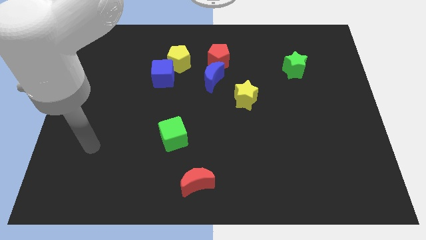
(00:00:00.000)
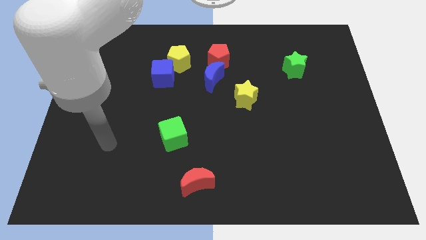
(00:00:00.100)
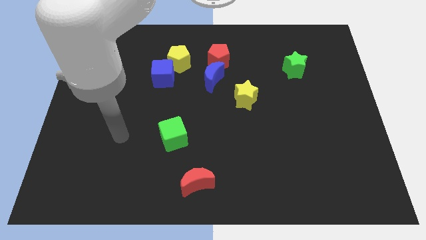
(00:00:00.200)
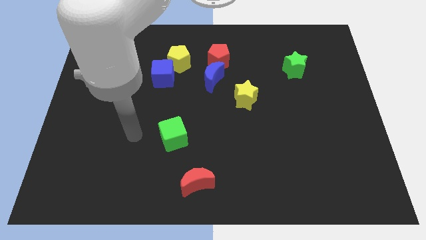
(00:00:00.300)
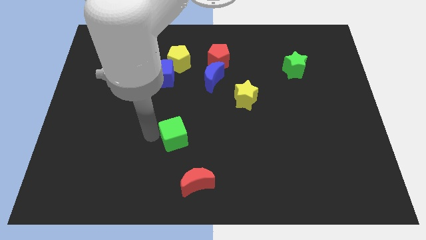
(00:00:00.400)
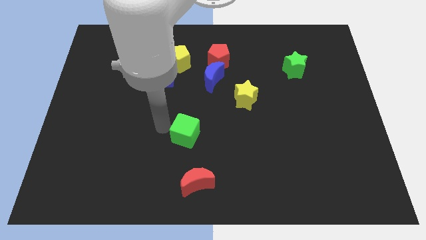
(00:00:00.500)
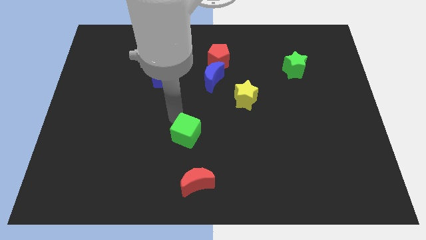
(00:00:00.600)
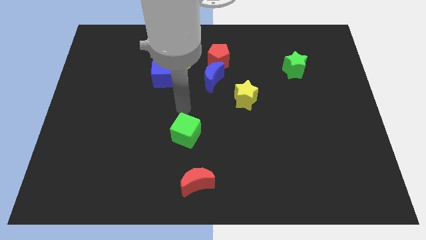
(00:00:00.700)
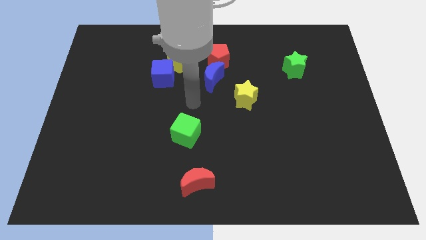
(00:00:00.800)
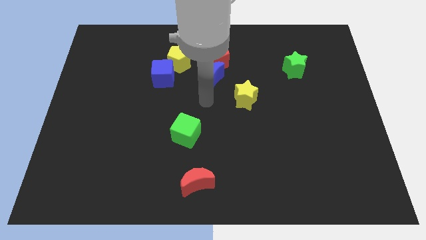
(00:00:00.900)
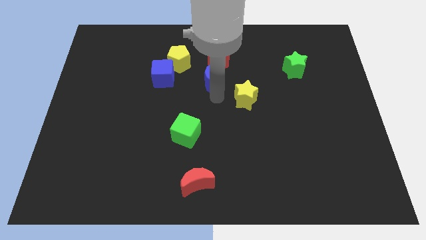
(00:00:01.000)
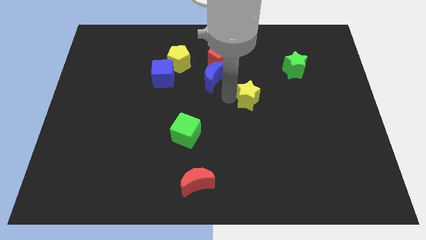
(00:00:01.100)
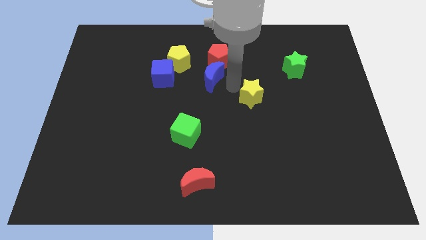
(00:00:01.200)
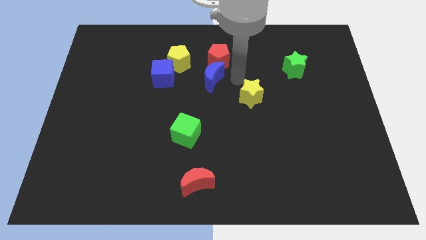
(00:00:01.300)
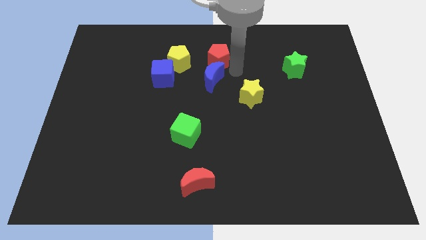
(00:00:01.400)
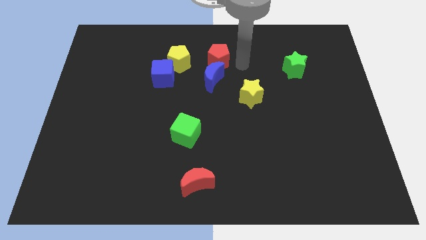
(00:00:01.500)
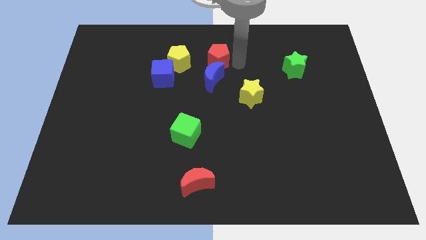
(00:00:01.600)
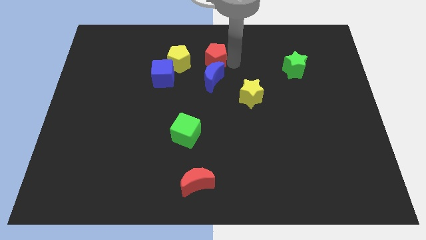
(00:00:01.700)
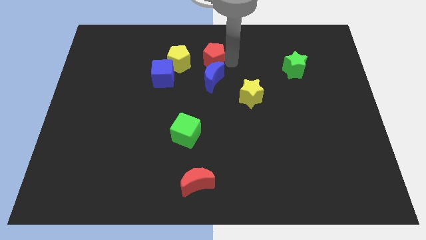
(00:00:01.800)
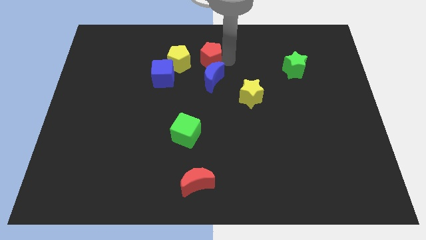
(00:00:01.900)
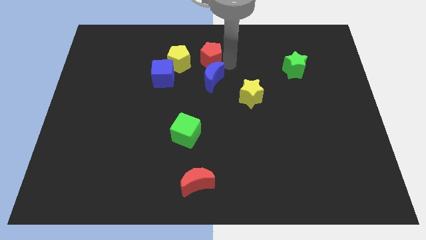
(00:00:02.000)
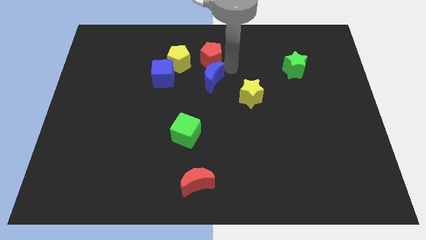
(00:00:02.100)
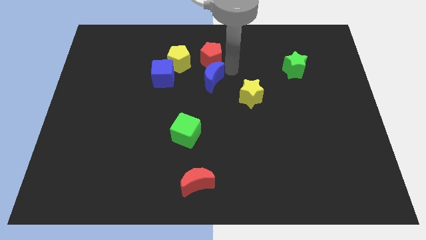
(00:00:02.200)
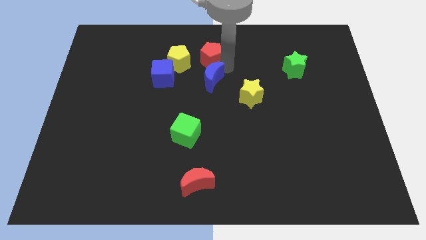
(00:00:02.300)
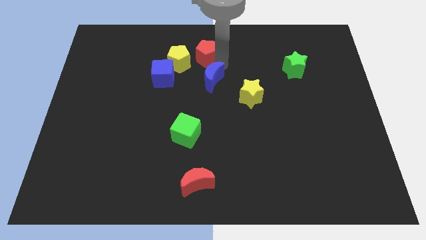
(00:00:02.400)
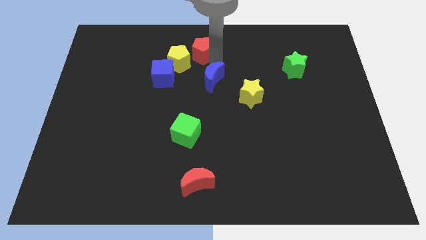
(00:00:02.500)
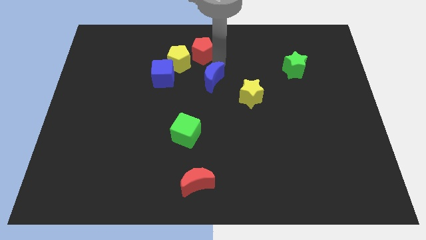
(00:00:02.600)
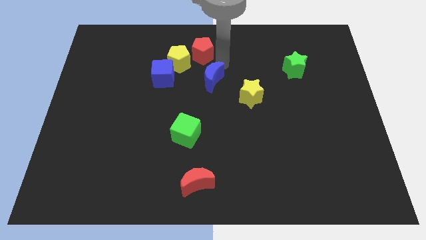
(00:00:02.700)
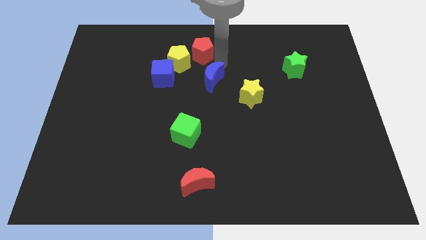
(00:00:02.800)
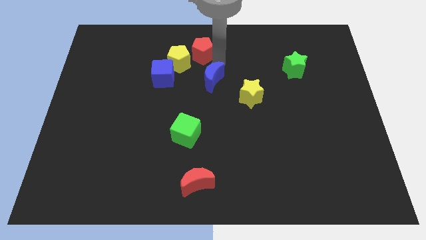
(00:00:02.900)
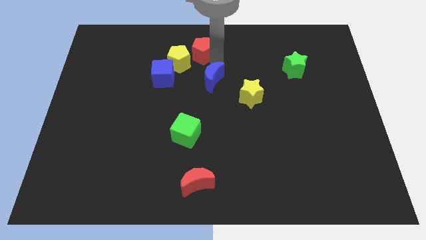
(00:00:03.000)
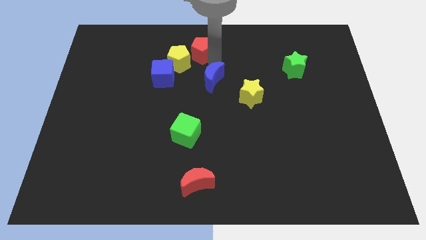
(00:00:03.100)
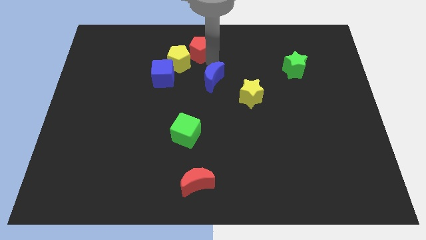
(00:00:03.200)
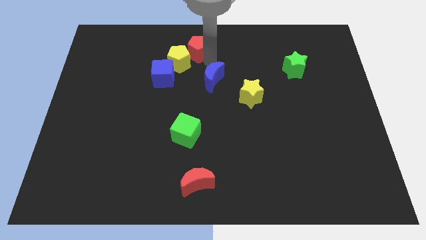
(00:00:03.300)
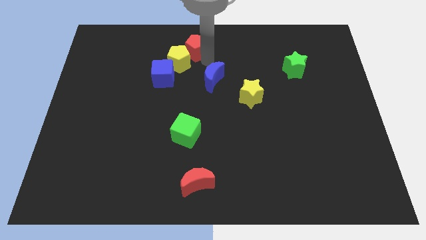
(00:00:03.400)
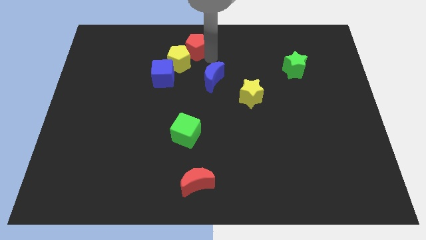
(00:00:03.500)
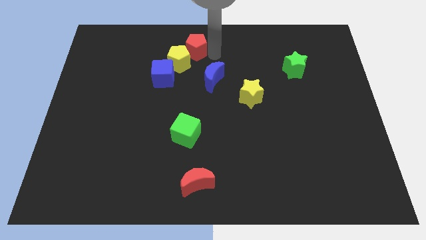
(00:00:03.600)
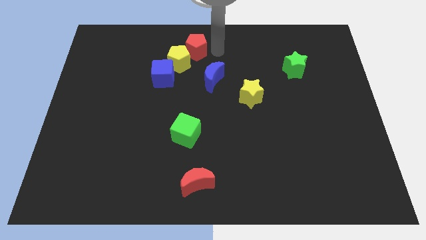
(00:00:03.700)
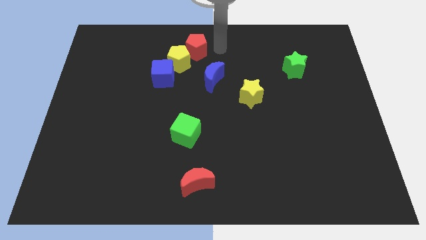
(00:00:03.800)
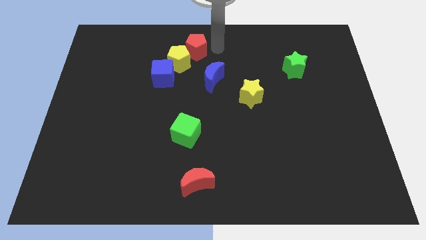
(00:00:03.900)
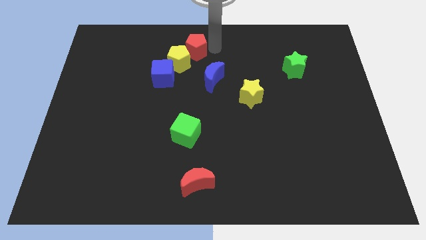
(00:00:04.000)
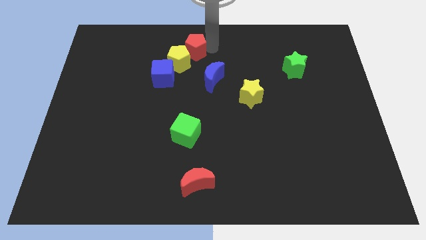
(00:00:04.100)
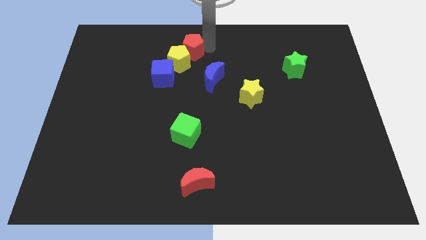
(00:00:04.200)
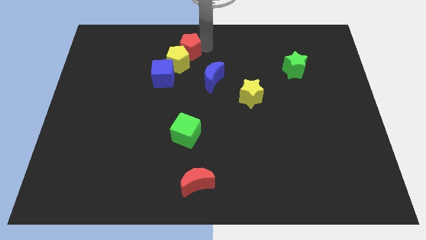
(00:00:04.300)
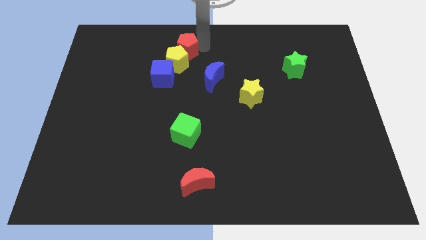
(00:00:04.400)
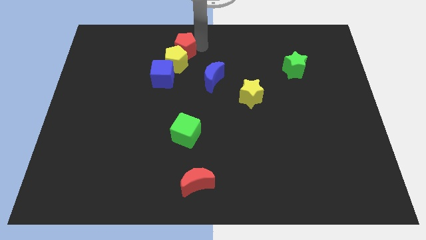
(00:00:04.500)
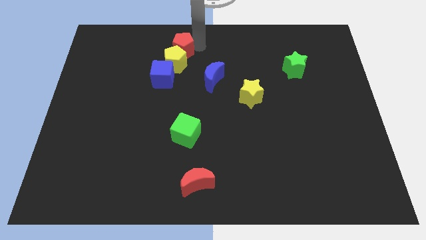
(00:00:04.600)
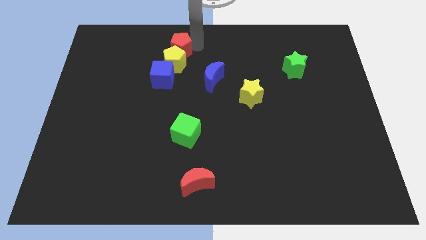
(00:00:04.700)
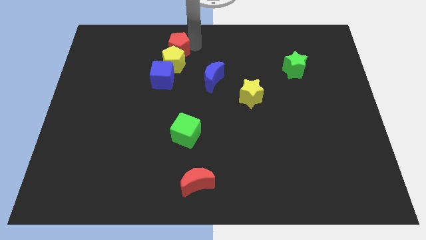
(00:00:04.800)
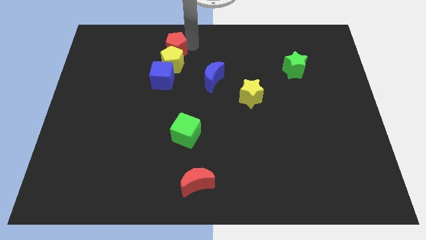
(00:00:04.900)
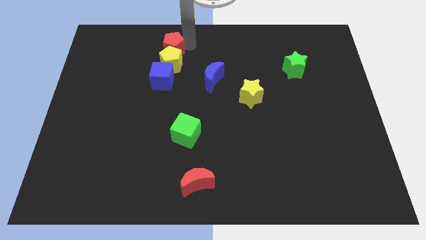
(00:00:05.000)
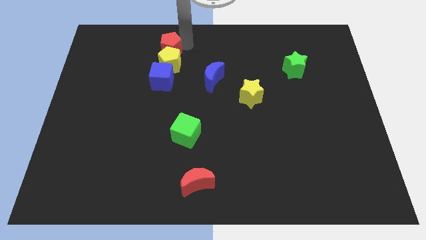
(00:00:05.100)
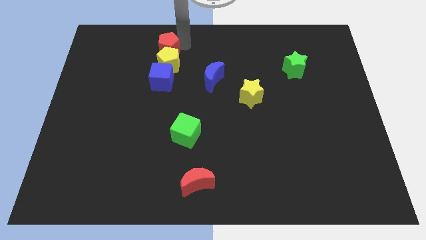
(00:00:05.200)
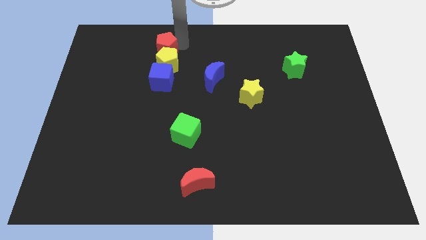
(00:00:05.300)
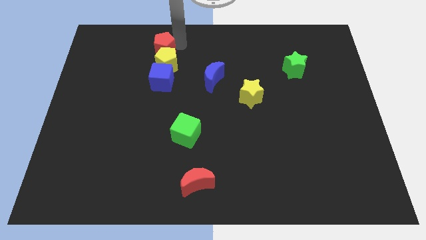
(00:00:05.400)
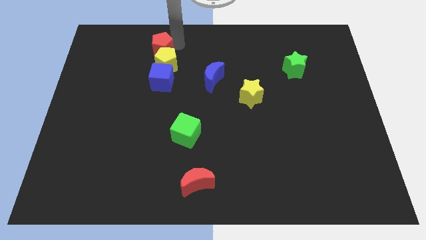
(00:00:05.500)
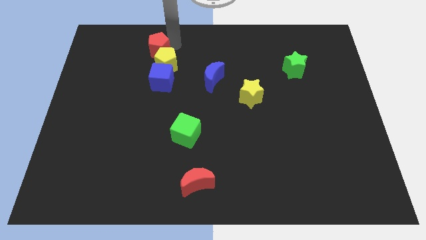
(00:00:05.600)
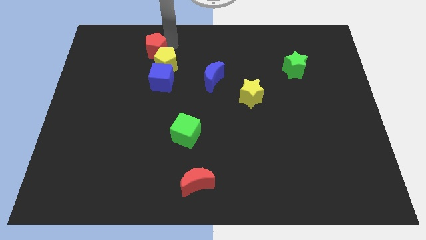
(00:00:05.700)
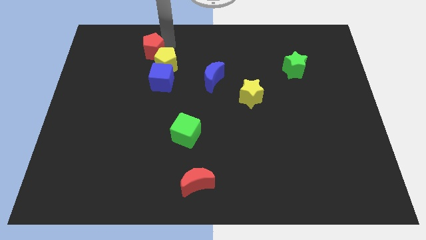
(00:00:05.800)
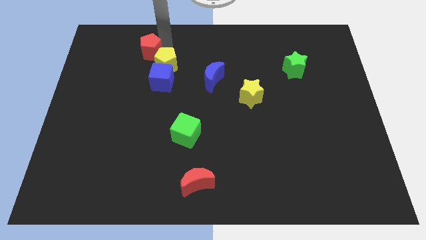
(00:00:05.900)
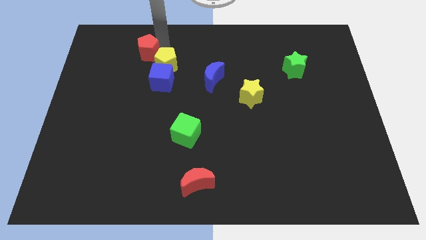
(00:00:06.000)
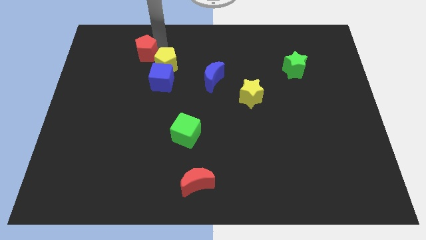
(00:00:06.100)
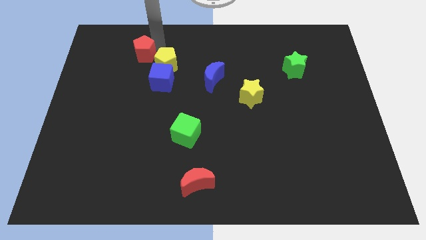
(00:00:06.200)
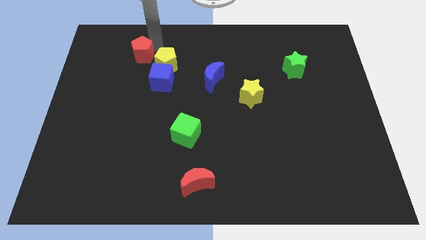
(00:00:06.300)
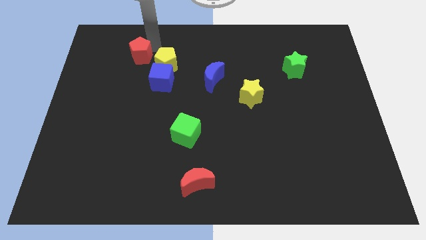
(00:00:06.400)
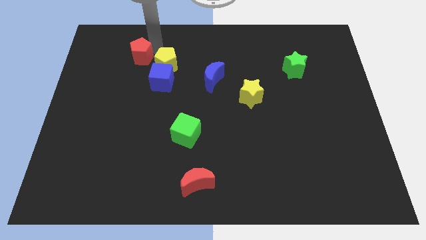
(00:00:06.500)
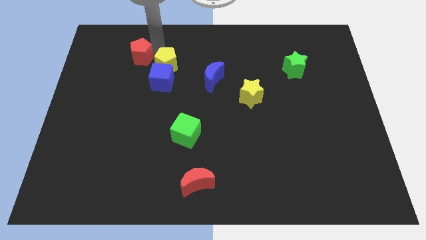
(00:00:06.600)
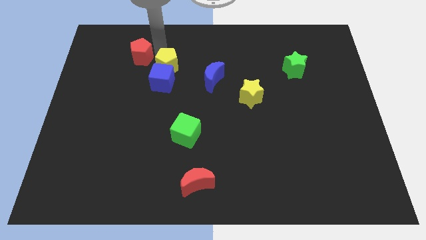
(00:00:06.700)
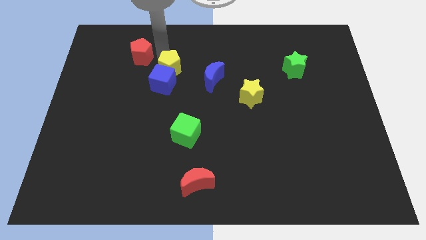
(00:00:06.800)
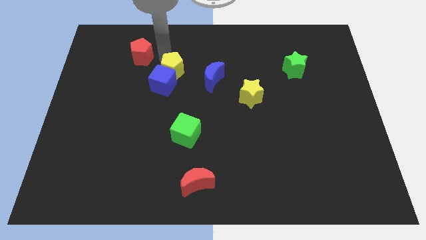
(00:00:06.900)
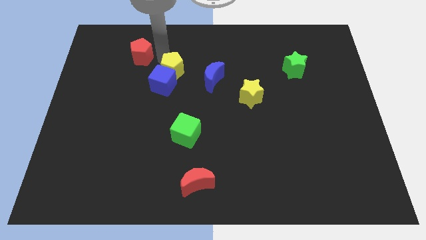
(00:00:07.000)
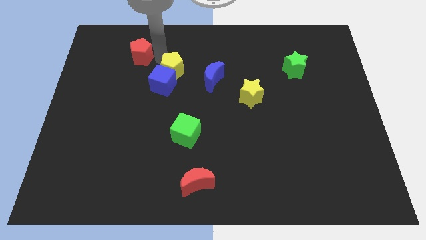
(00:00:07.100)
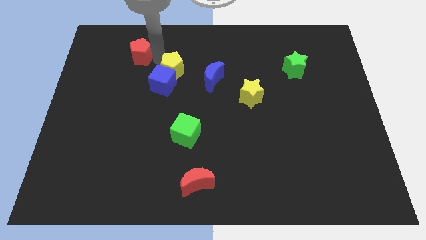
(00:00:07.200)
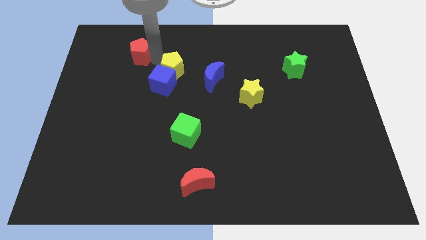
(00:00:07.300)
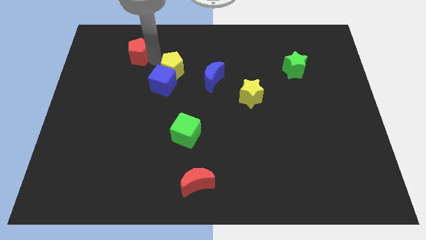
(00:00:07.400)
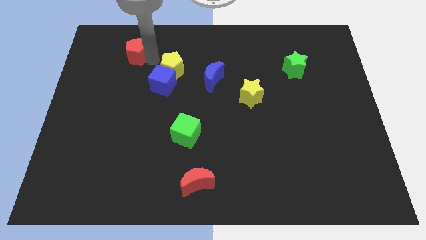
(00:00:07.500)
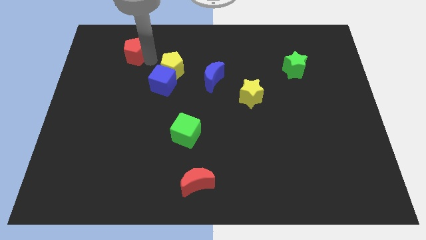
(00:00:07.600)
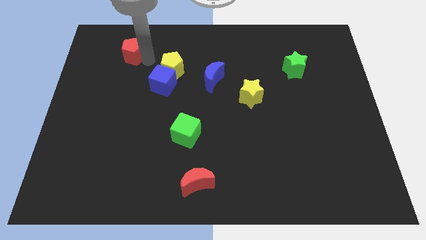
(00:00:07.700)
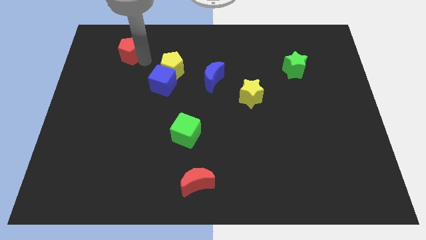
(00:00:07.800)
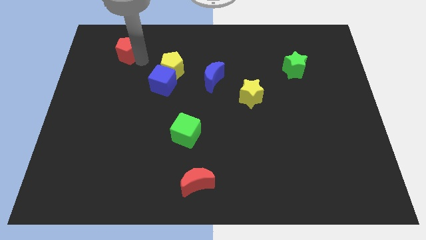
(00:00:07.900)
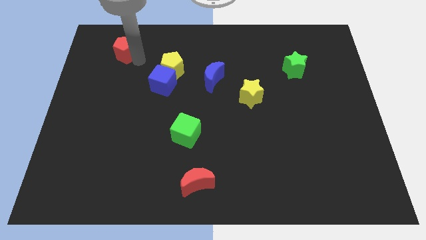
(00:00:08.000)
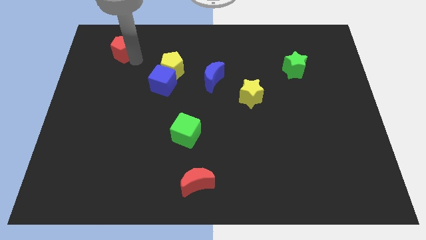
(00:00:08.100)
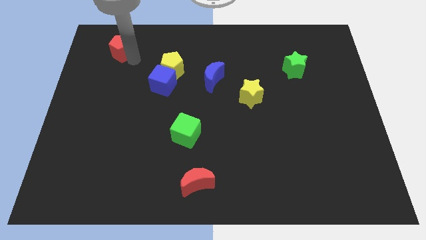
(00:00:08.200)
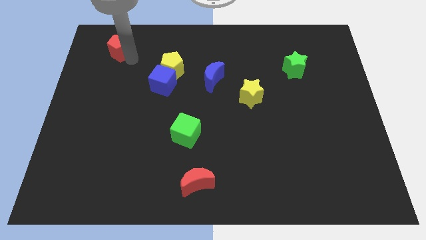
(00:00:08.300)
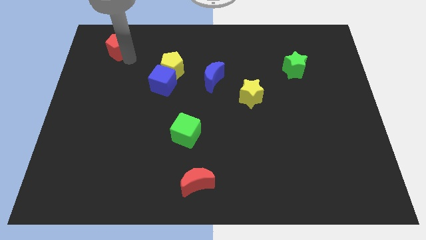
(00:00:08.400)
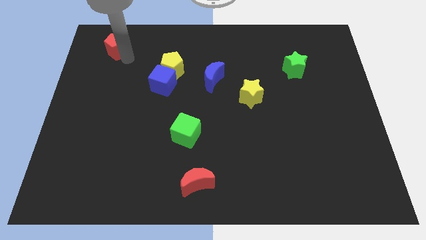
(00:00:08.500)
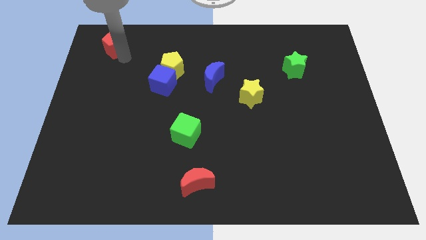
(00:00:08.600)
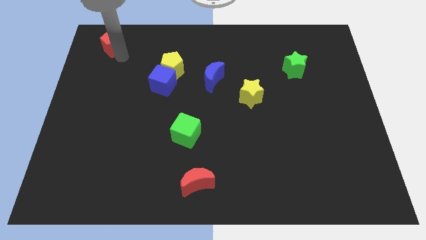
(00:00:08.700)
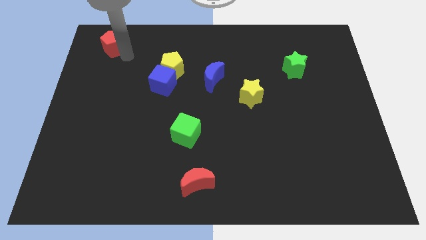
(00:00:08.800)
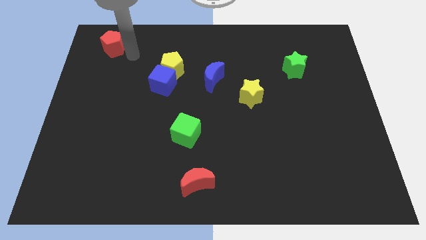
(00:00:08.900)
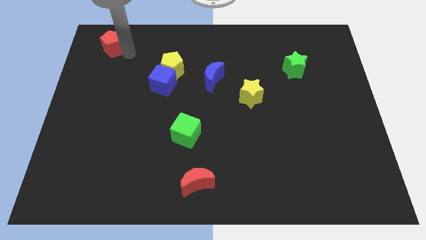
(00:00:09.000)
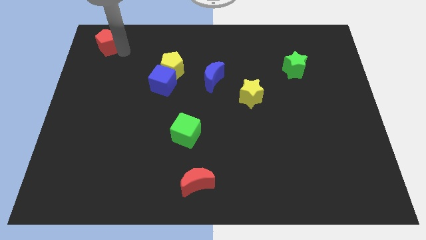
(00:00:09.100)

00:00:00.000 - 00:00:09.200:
slide the red pentagon to the top left
